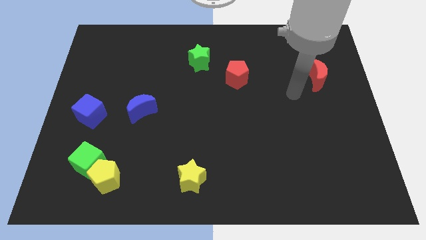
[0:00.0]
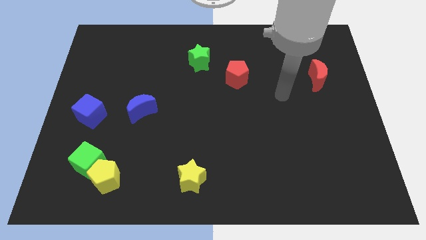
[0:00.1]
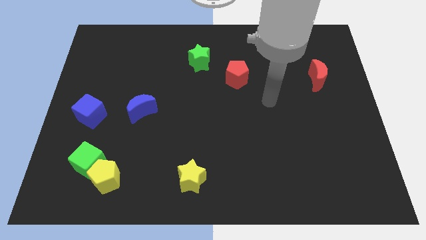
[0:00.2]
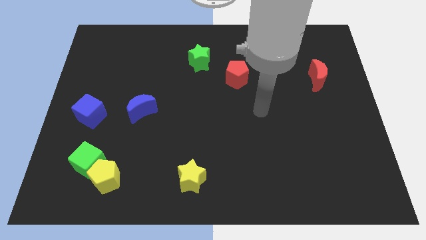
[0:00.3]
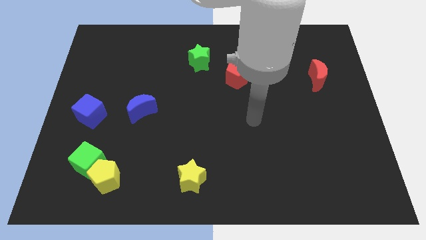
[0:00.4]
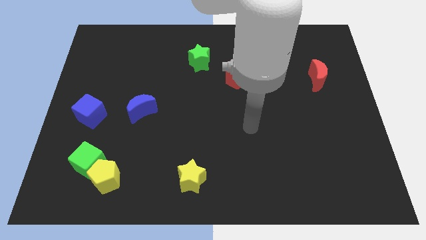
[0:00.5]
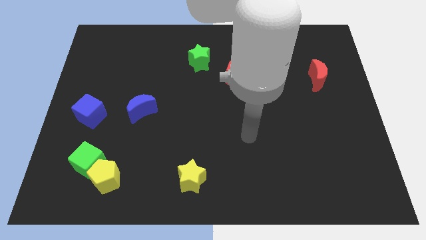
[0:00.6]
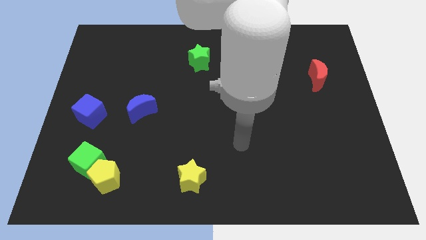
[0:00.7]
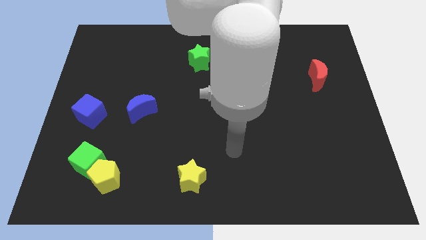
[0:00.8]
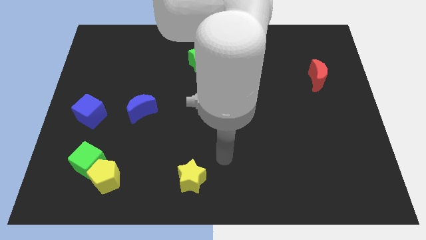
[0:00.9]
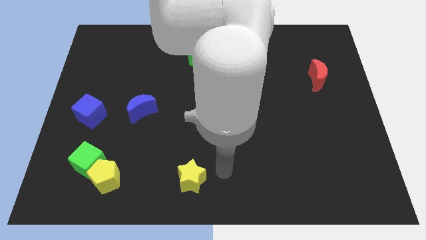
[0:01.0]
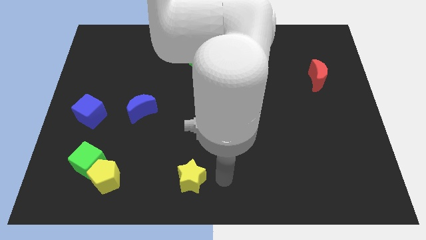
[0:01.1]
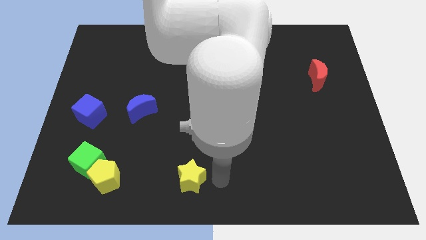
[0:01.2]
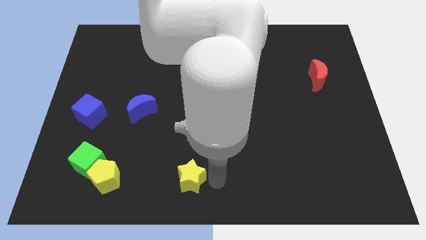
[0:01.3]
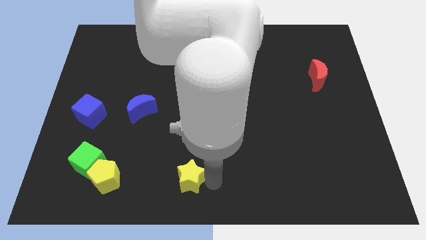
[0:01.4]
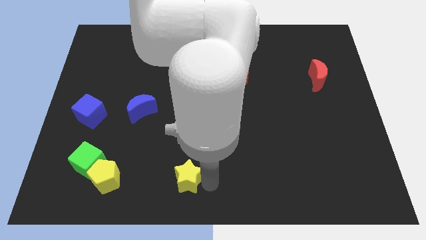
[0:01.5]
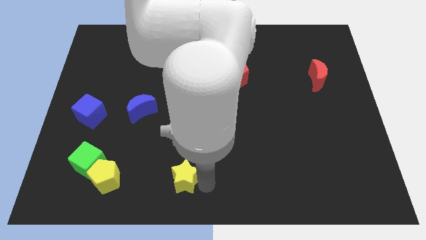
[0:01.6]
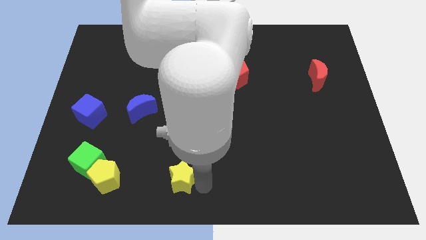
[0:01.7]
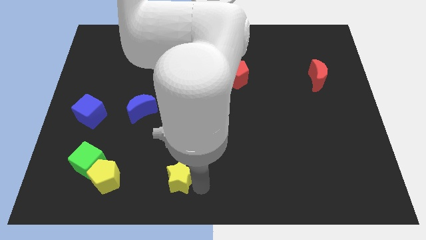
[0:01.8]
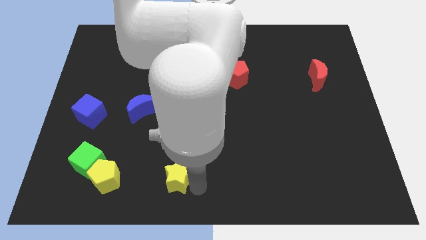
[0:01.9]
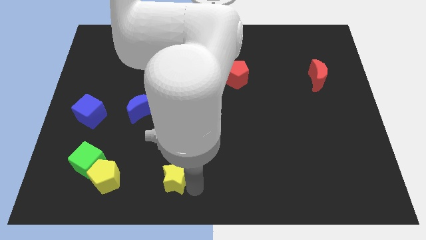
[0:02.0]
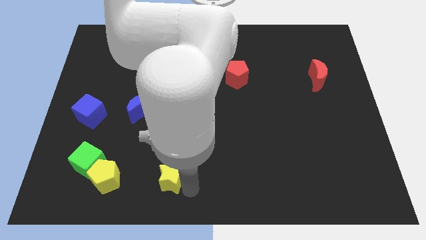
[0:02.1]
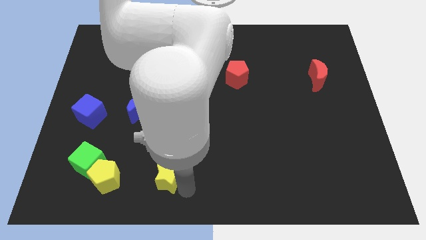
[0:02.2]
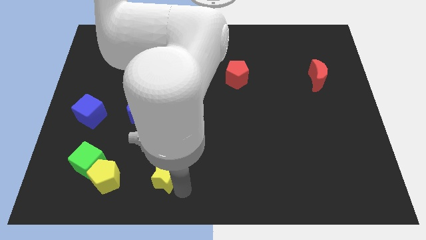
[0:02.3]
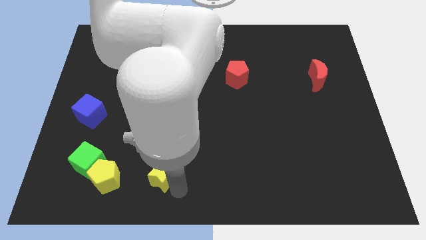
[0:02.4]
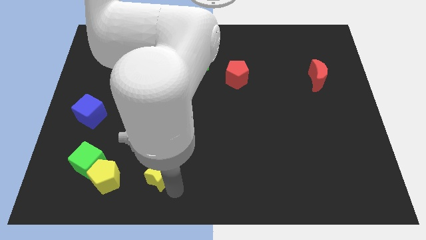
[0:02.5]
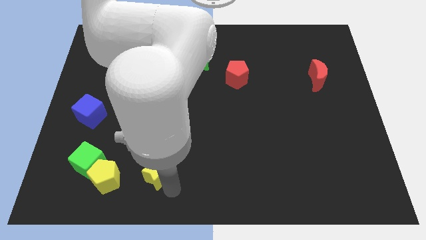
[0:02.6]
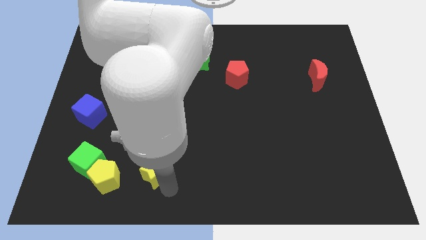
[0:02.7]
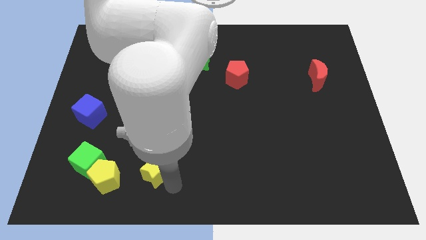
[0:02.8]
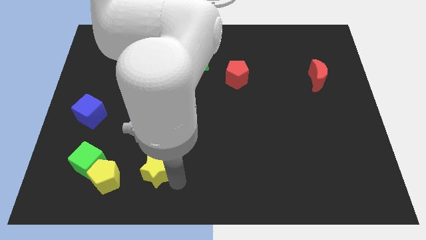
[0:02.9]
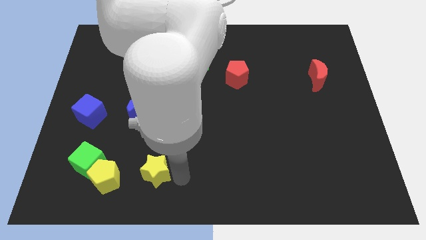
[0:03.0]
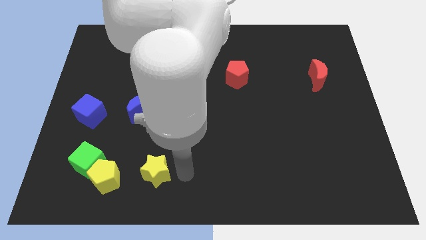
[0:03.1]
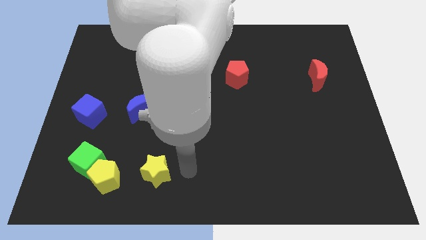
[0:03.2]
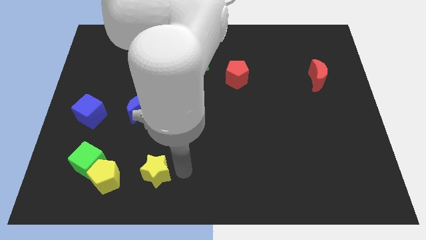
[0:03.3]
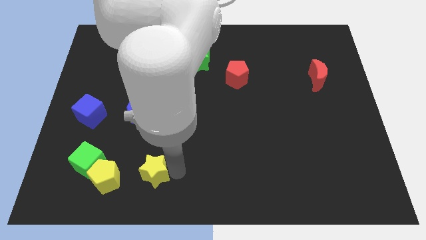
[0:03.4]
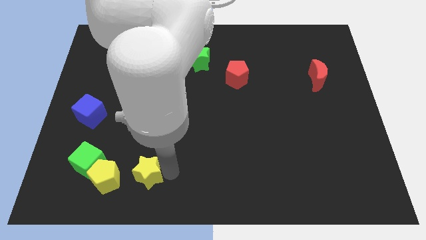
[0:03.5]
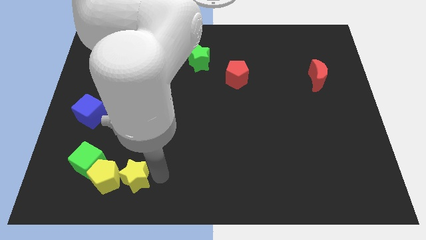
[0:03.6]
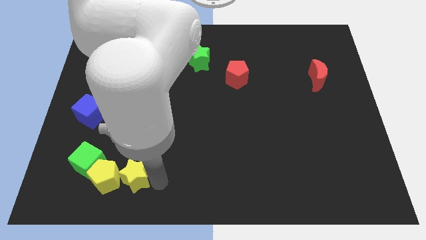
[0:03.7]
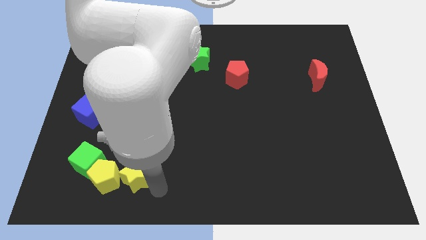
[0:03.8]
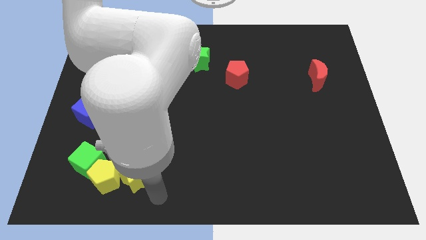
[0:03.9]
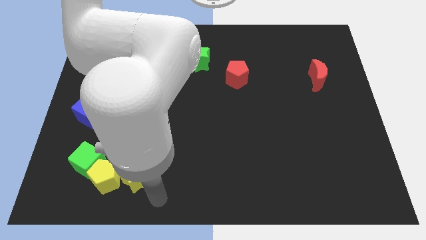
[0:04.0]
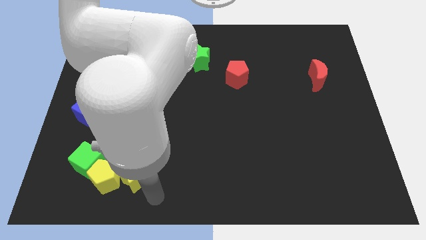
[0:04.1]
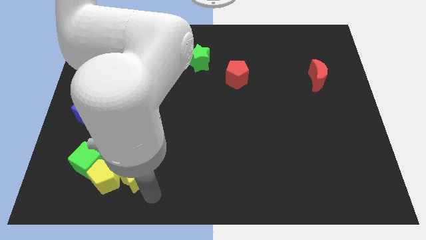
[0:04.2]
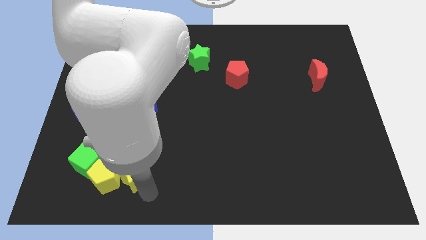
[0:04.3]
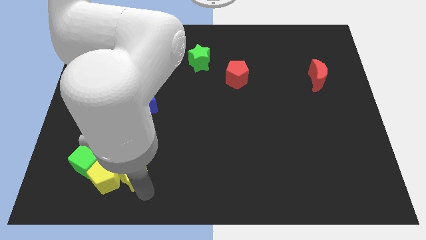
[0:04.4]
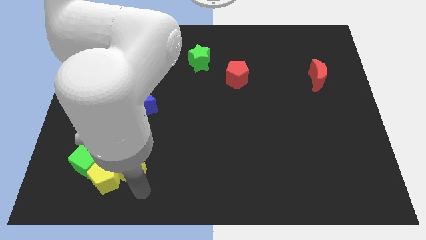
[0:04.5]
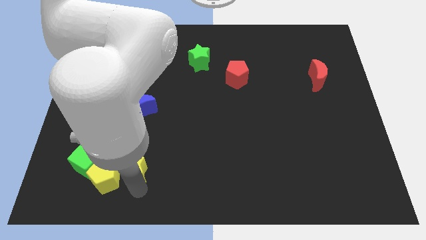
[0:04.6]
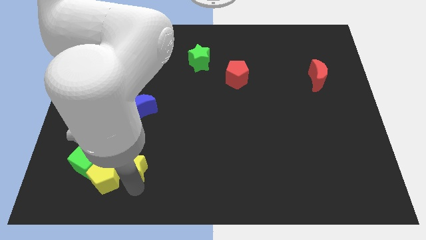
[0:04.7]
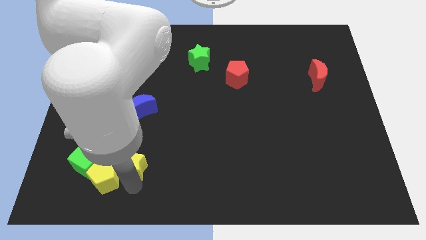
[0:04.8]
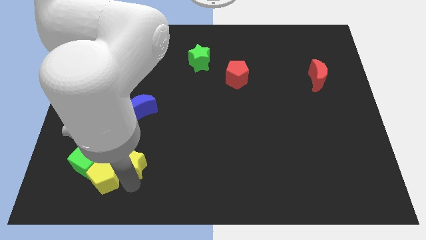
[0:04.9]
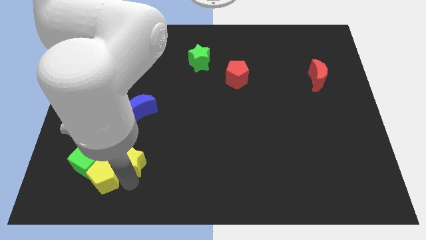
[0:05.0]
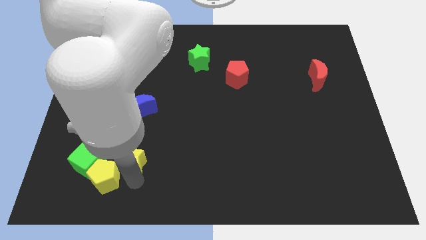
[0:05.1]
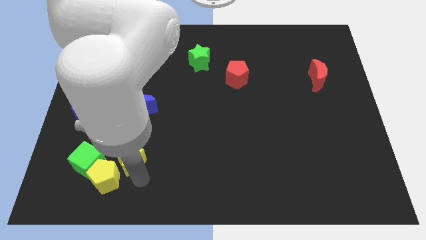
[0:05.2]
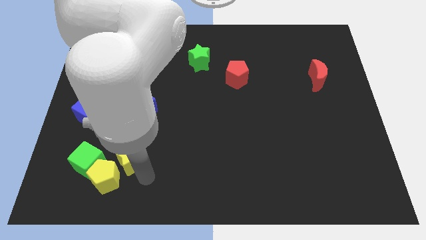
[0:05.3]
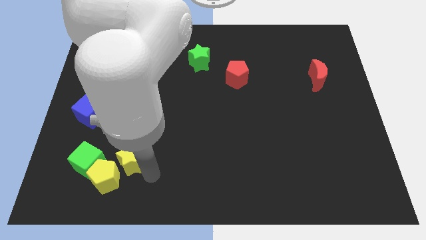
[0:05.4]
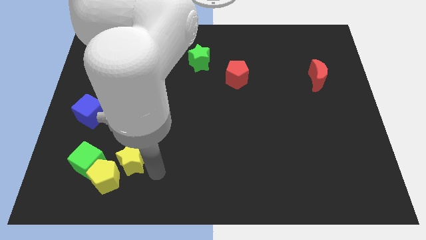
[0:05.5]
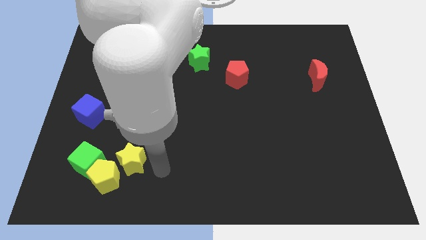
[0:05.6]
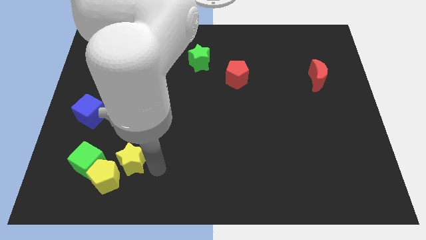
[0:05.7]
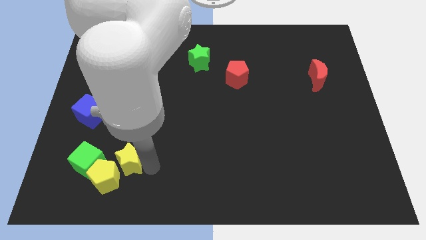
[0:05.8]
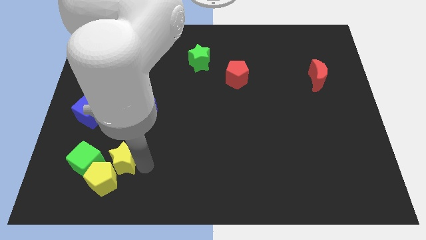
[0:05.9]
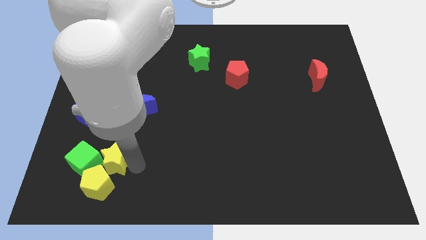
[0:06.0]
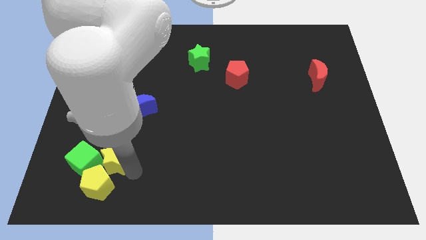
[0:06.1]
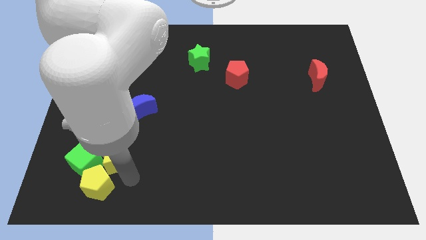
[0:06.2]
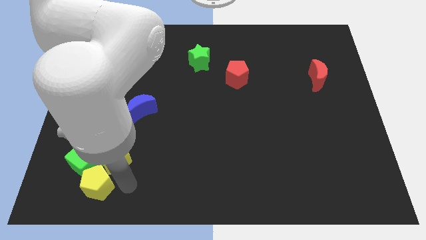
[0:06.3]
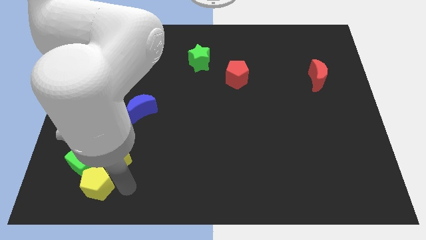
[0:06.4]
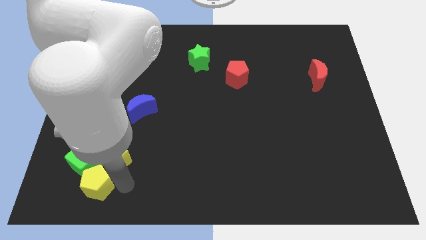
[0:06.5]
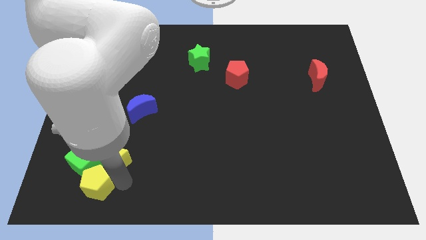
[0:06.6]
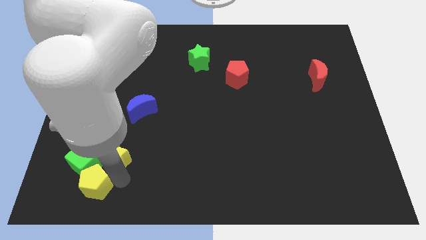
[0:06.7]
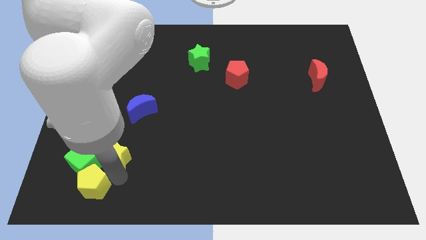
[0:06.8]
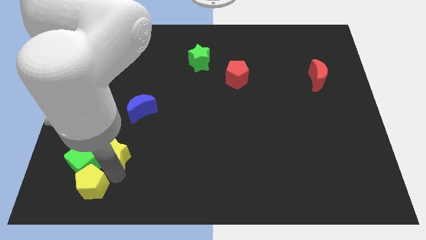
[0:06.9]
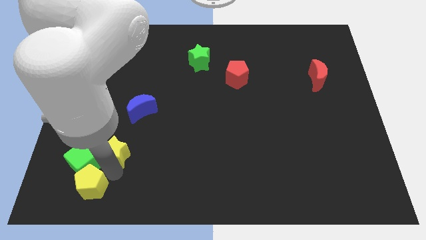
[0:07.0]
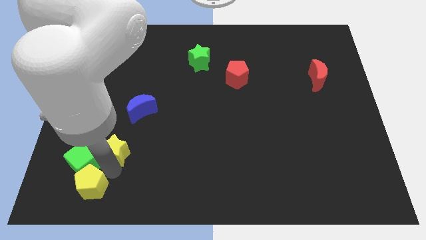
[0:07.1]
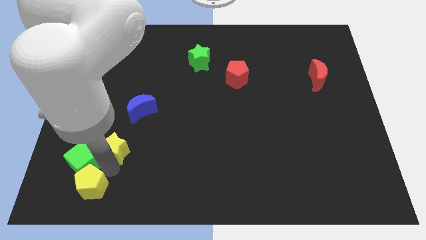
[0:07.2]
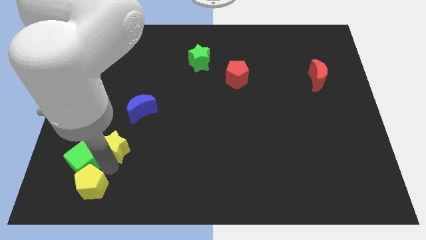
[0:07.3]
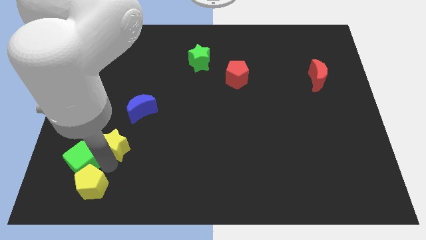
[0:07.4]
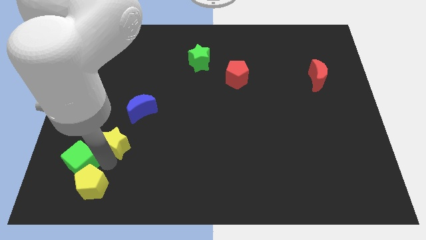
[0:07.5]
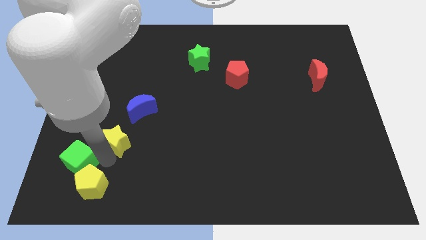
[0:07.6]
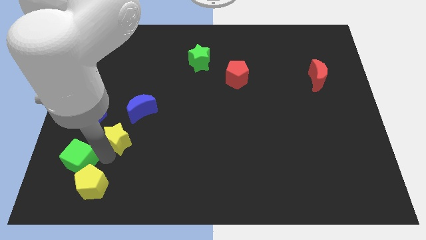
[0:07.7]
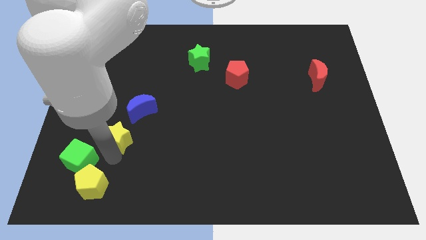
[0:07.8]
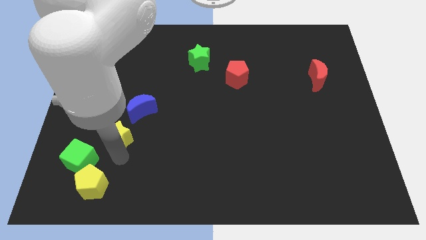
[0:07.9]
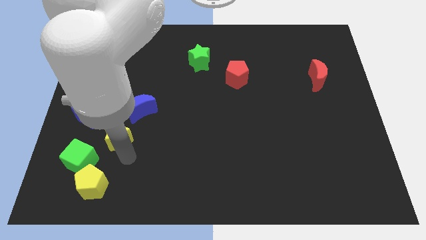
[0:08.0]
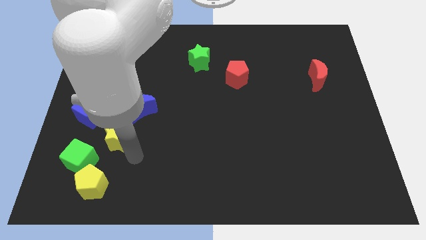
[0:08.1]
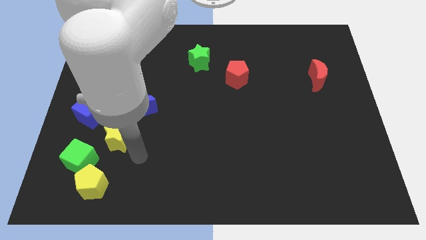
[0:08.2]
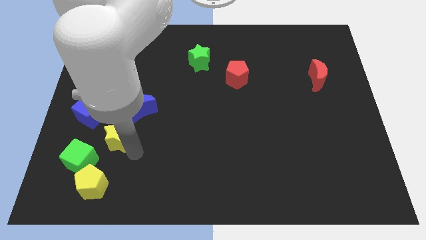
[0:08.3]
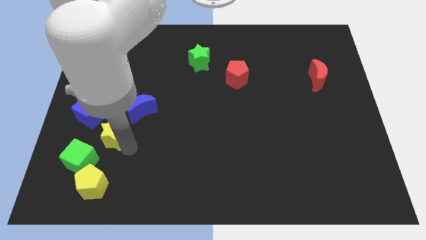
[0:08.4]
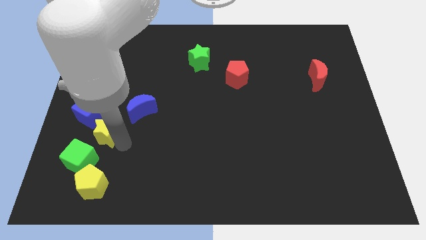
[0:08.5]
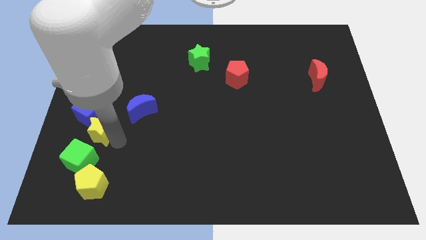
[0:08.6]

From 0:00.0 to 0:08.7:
slide the yellow star towards the blue cube
